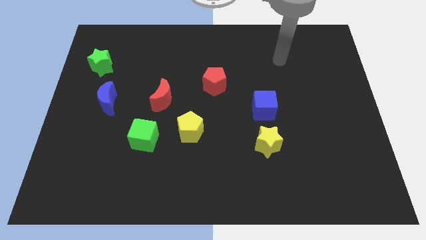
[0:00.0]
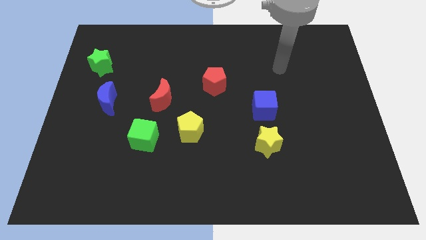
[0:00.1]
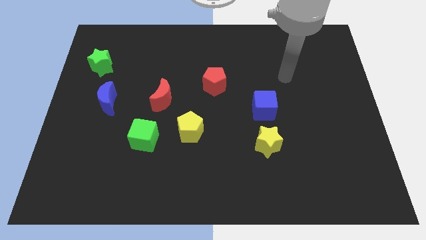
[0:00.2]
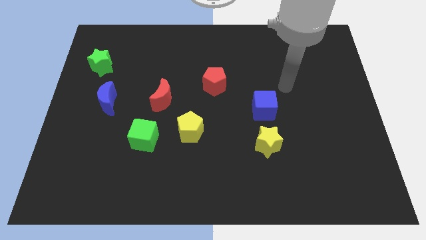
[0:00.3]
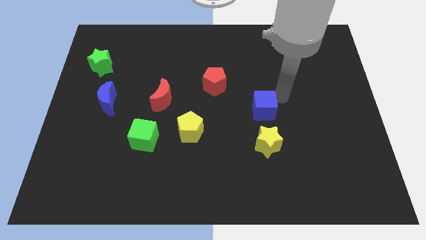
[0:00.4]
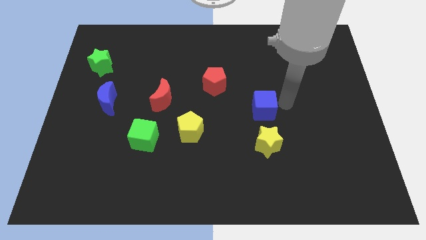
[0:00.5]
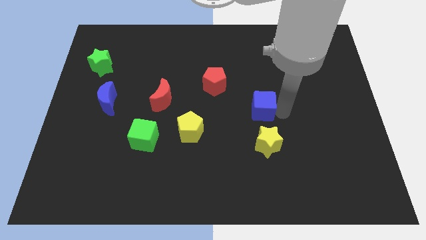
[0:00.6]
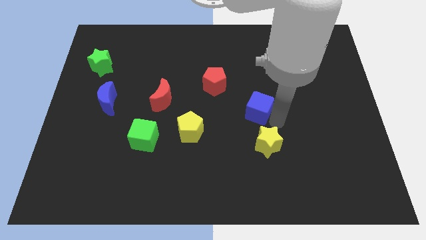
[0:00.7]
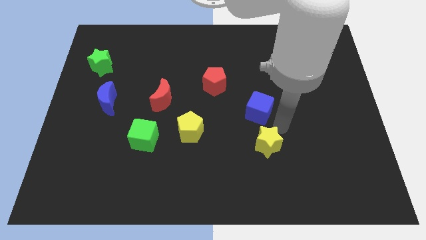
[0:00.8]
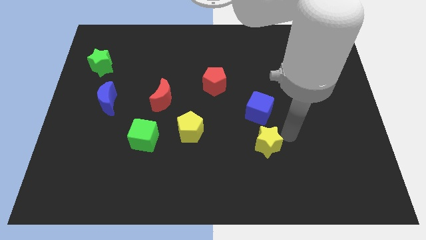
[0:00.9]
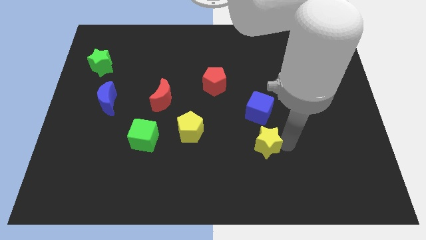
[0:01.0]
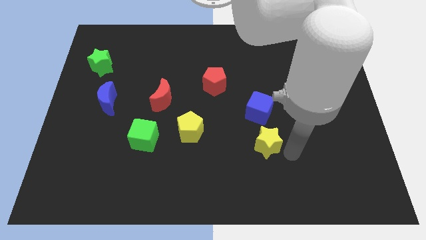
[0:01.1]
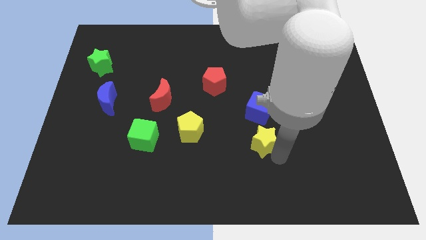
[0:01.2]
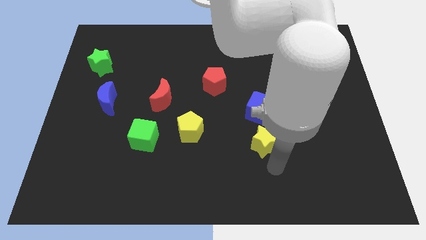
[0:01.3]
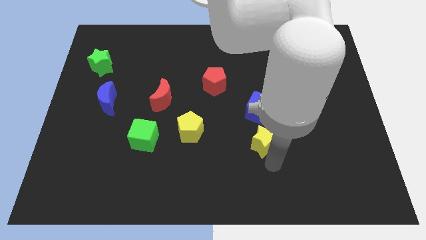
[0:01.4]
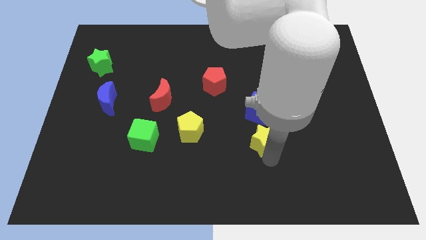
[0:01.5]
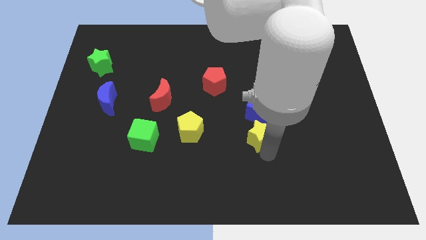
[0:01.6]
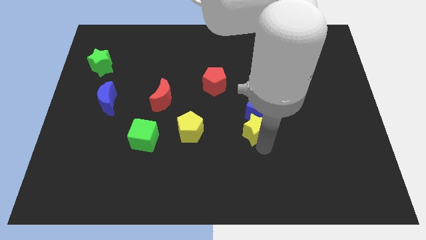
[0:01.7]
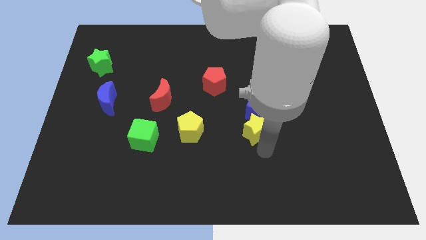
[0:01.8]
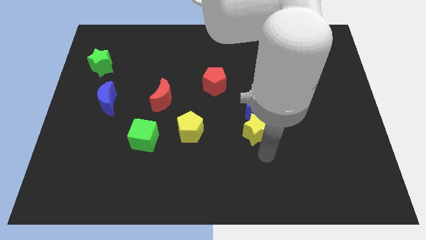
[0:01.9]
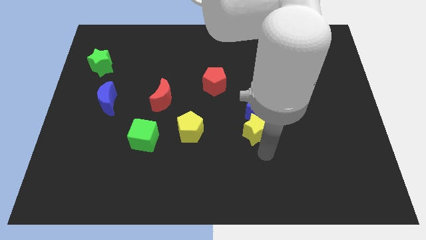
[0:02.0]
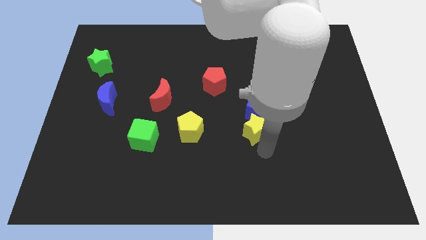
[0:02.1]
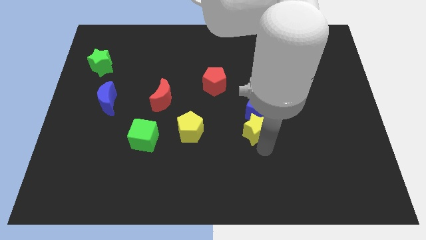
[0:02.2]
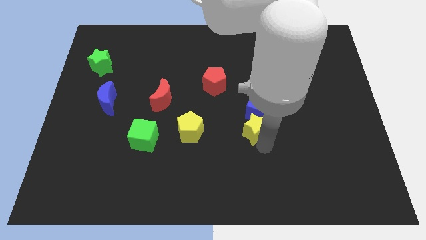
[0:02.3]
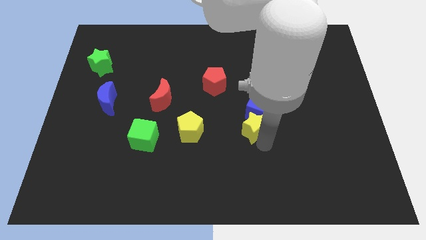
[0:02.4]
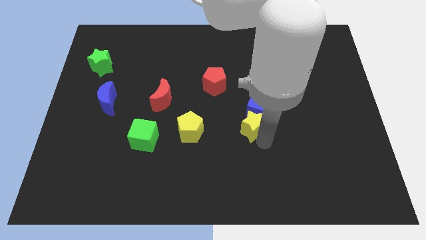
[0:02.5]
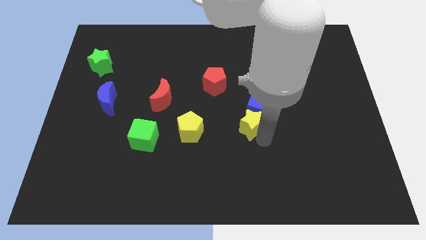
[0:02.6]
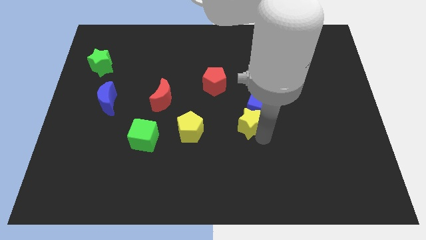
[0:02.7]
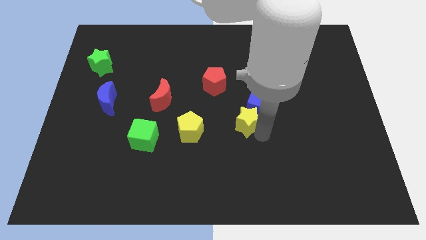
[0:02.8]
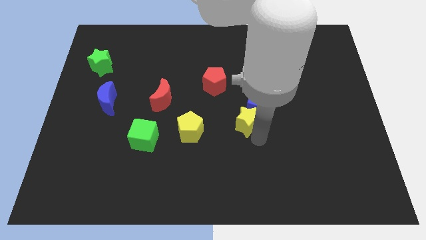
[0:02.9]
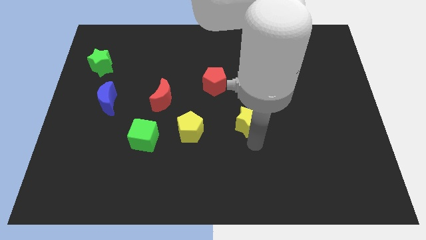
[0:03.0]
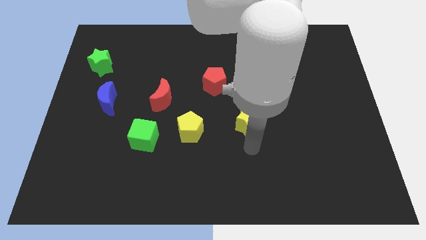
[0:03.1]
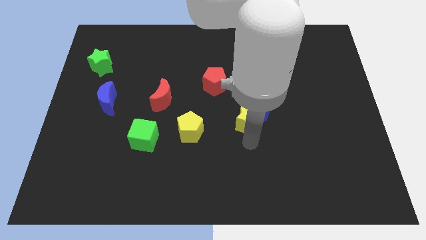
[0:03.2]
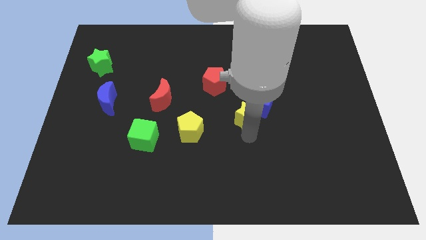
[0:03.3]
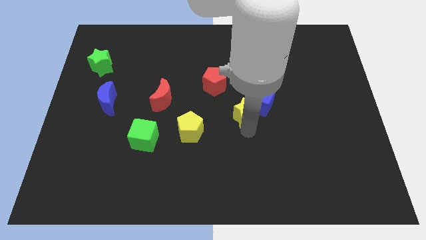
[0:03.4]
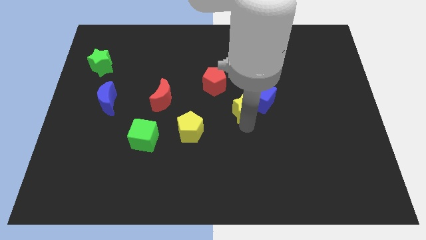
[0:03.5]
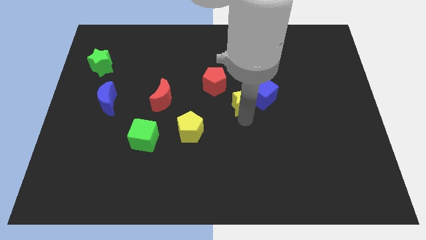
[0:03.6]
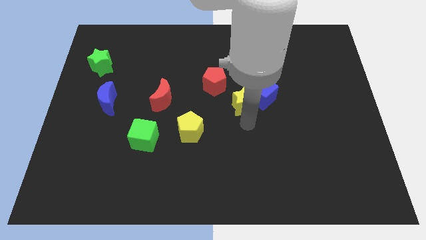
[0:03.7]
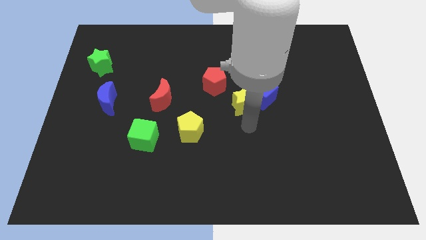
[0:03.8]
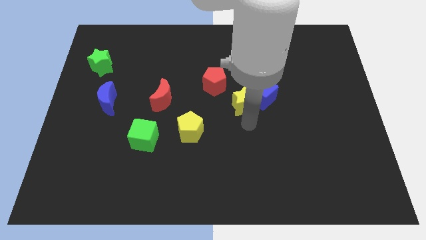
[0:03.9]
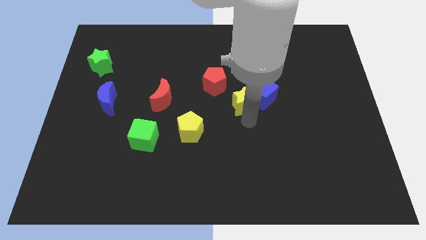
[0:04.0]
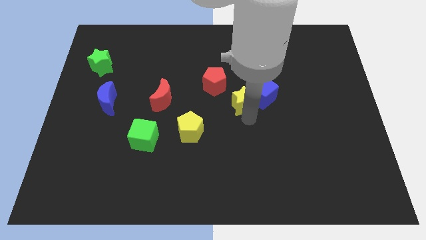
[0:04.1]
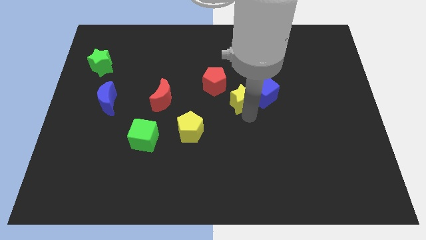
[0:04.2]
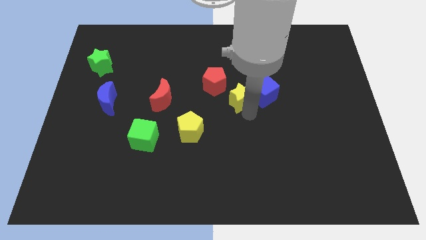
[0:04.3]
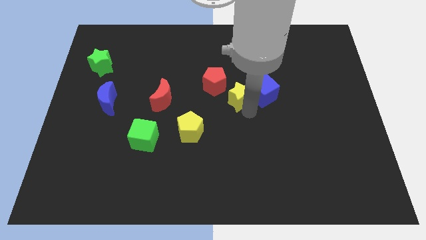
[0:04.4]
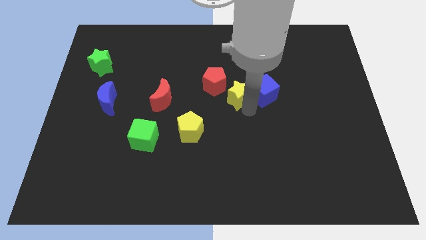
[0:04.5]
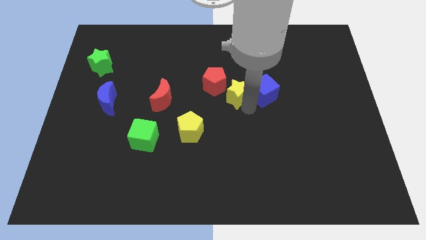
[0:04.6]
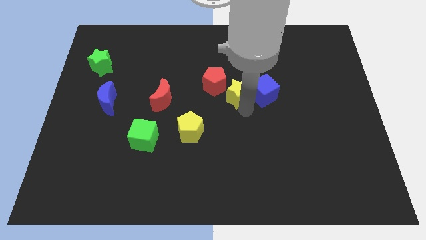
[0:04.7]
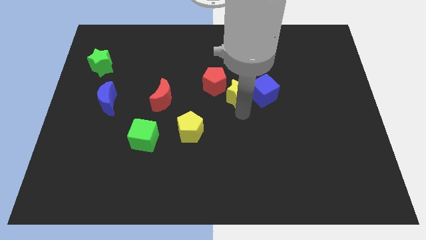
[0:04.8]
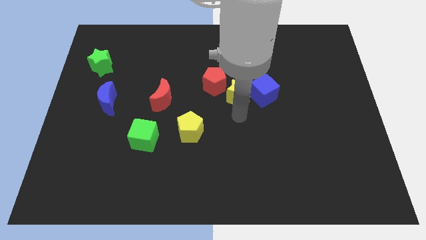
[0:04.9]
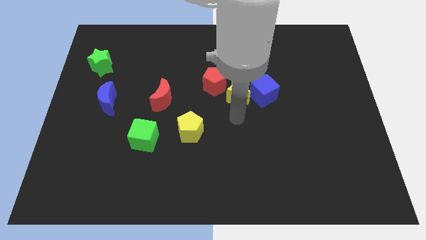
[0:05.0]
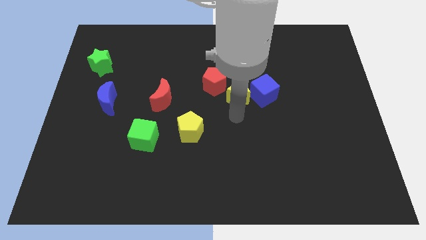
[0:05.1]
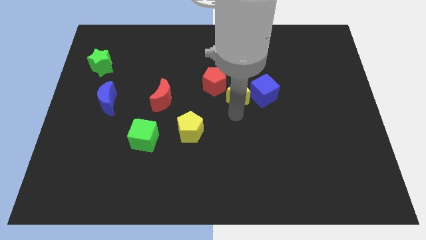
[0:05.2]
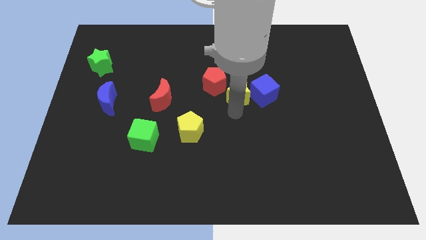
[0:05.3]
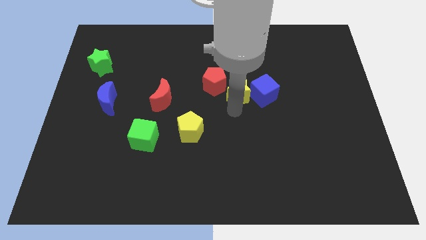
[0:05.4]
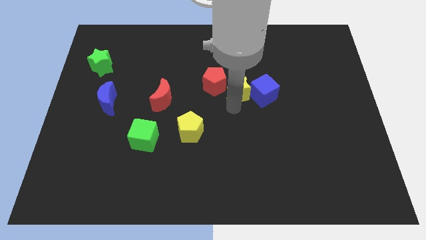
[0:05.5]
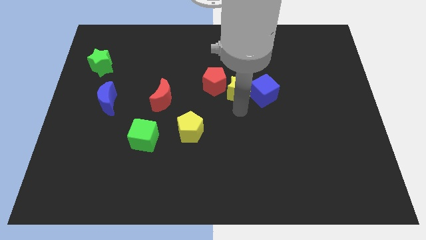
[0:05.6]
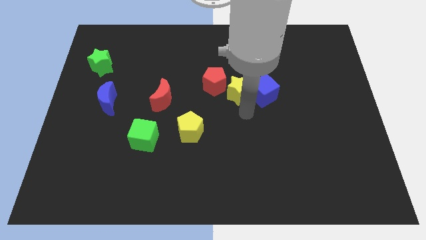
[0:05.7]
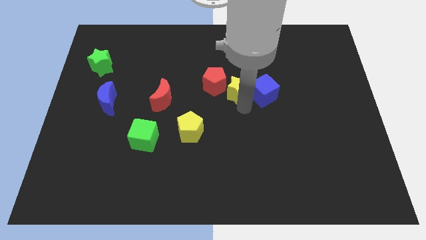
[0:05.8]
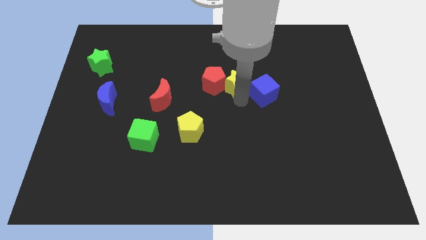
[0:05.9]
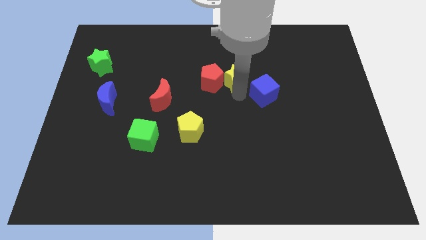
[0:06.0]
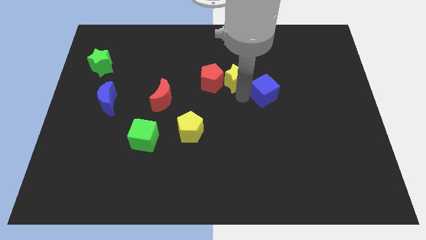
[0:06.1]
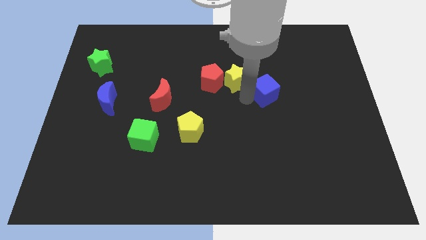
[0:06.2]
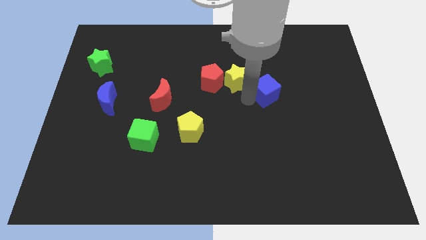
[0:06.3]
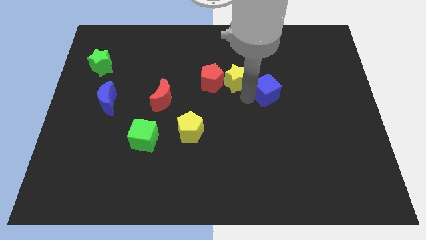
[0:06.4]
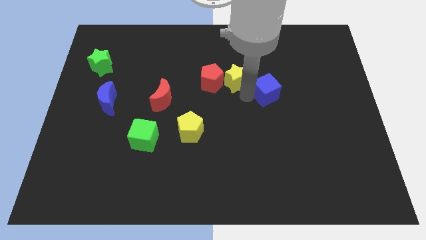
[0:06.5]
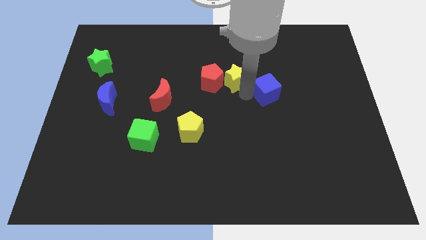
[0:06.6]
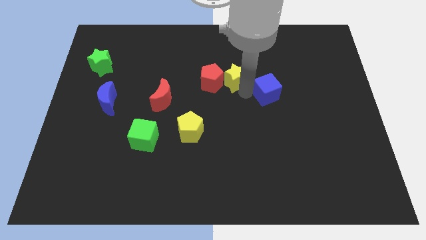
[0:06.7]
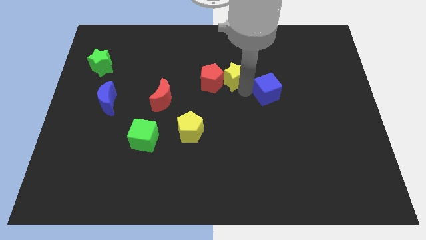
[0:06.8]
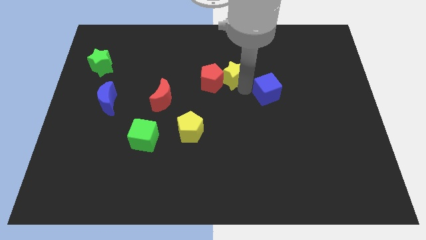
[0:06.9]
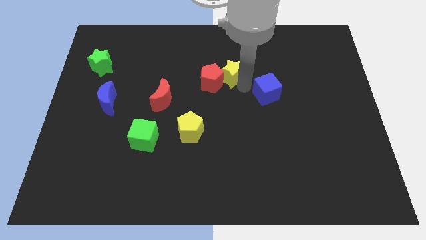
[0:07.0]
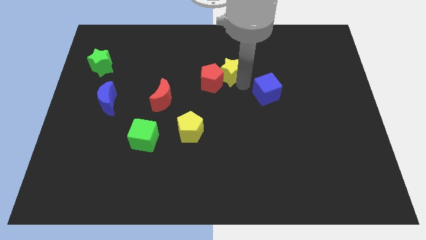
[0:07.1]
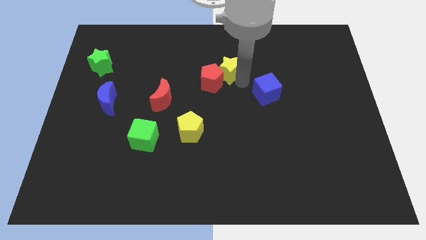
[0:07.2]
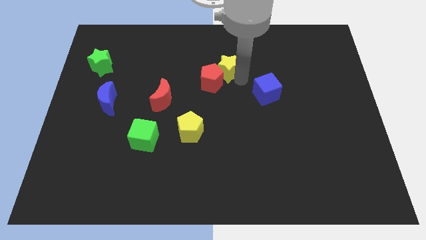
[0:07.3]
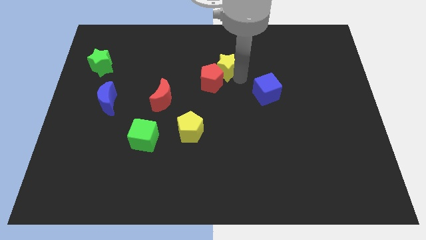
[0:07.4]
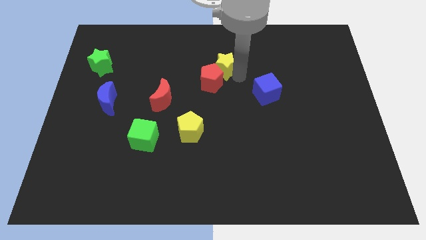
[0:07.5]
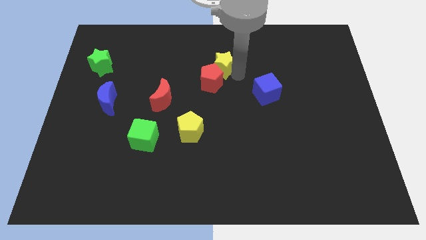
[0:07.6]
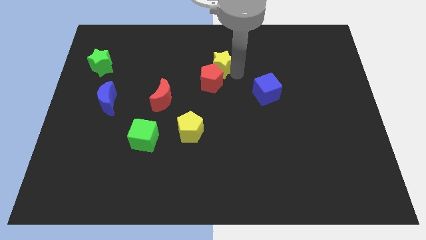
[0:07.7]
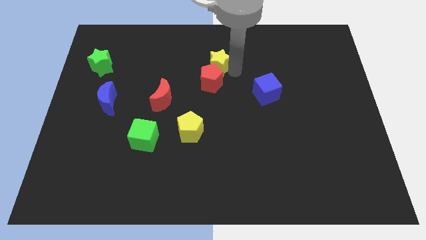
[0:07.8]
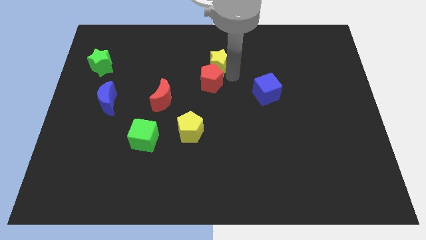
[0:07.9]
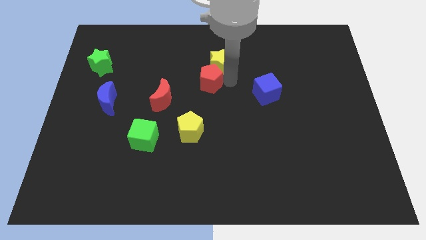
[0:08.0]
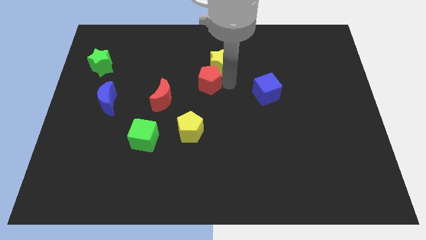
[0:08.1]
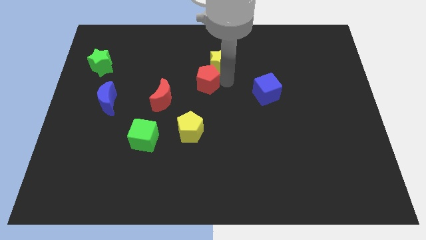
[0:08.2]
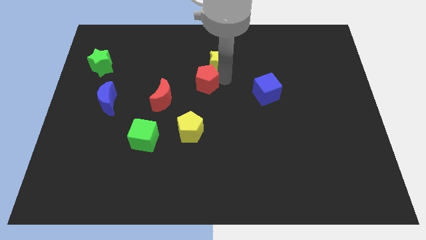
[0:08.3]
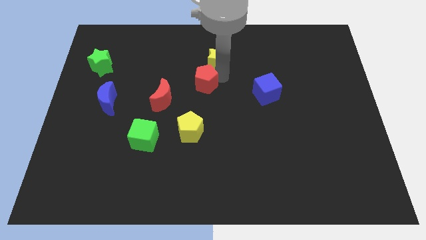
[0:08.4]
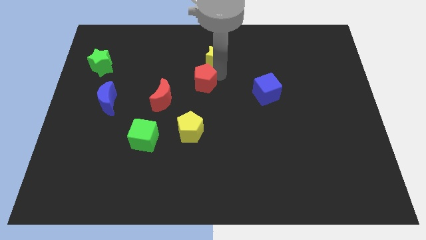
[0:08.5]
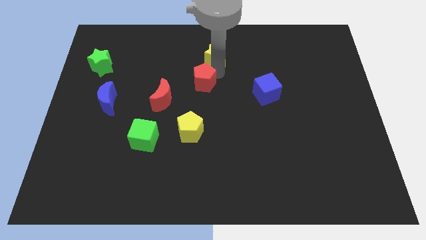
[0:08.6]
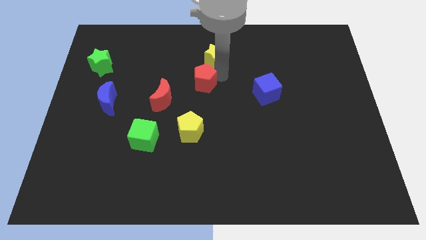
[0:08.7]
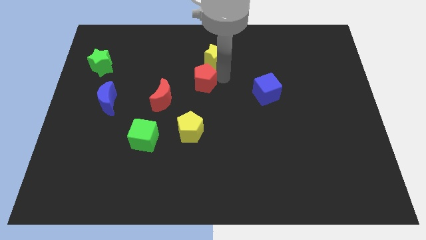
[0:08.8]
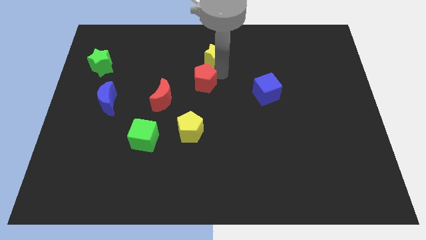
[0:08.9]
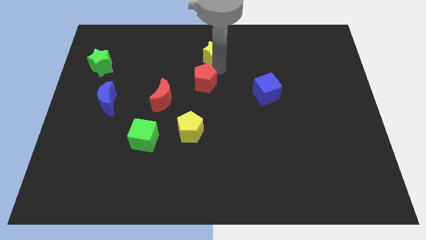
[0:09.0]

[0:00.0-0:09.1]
put the yellow star to the top
